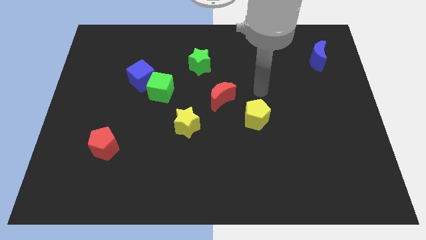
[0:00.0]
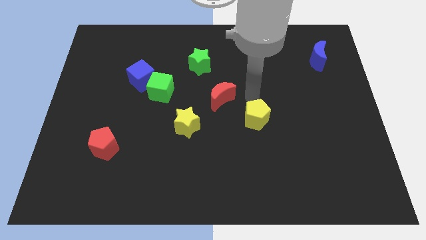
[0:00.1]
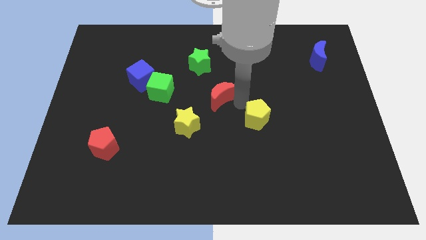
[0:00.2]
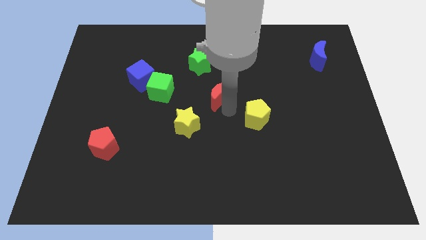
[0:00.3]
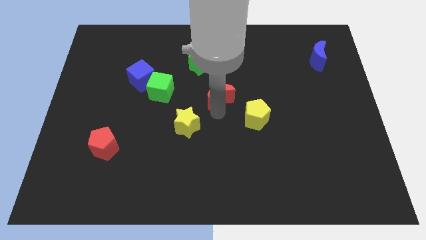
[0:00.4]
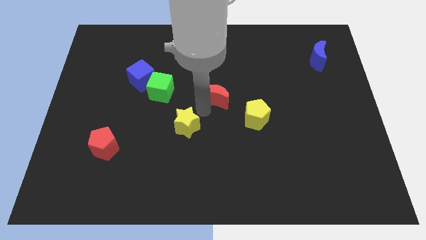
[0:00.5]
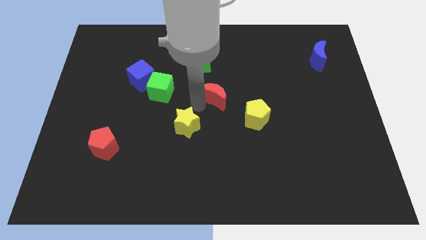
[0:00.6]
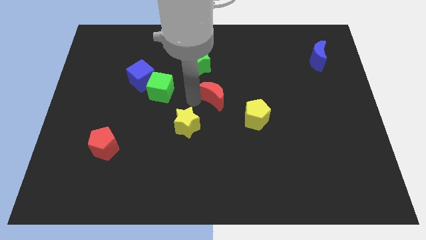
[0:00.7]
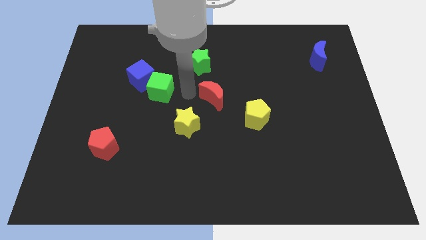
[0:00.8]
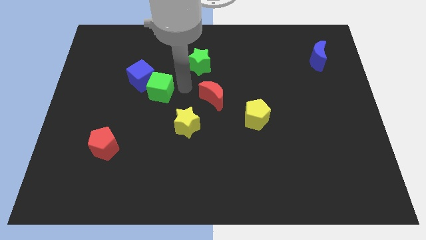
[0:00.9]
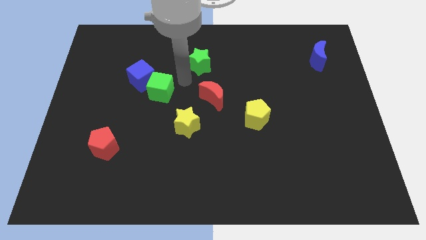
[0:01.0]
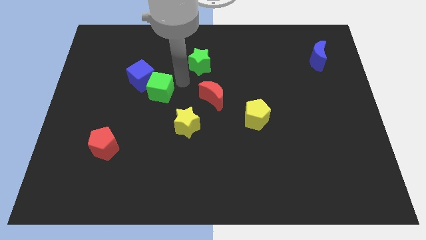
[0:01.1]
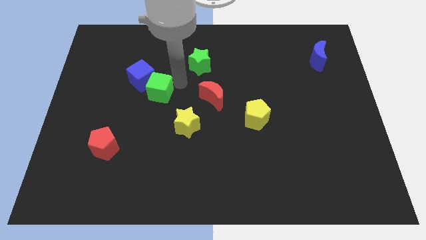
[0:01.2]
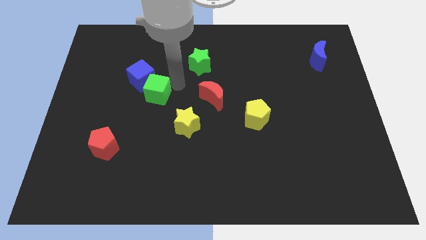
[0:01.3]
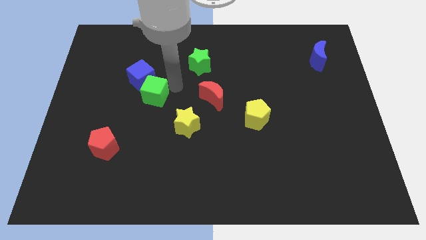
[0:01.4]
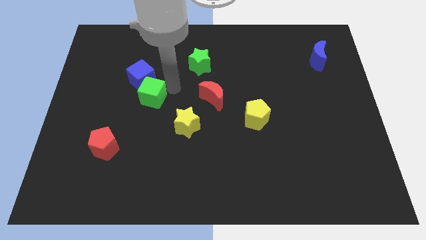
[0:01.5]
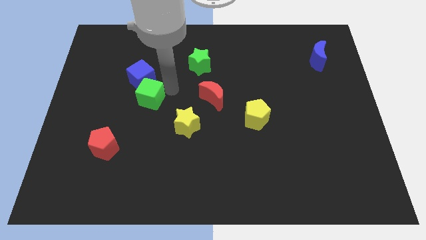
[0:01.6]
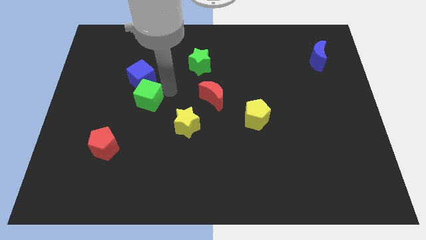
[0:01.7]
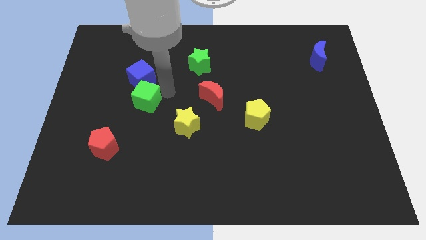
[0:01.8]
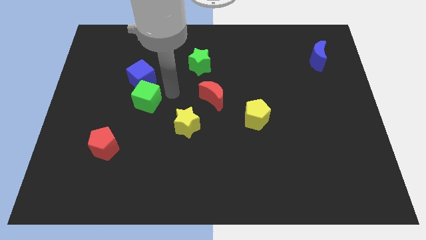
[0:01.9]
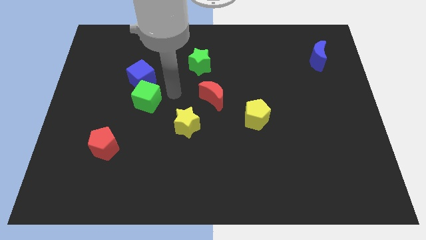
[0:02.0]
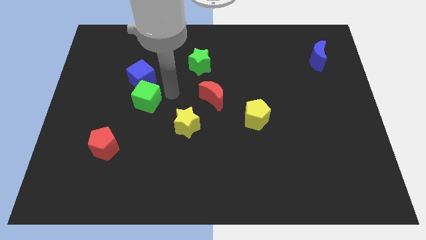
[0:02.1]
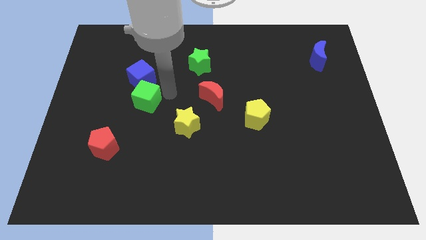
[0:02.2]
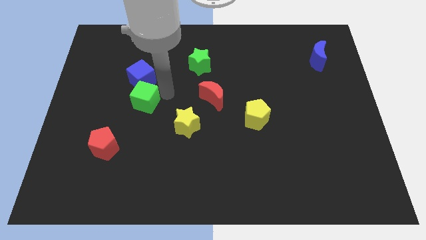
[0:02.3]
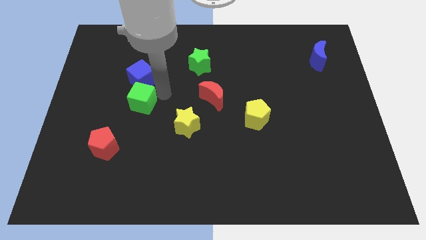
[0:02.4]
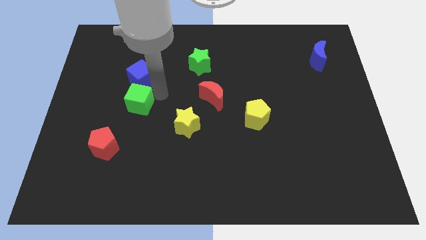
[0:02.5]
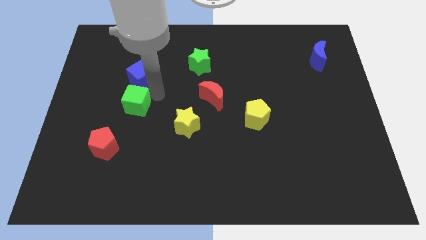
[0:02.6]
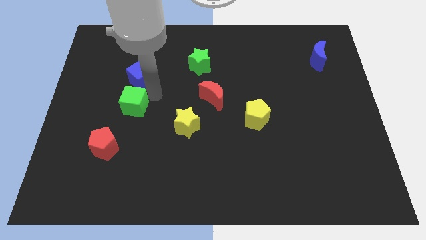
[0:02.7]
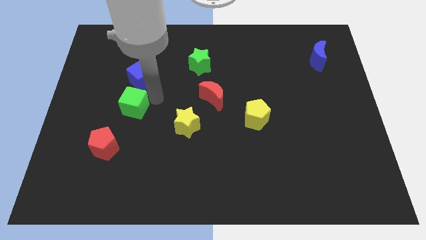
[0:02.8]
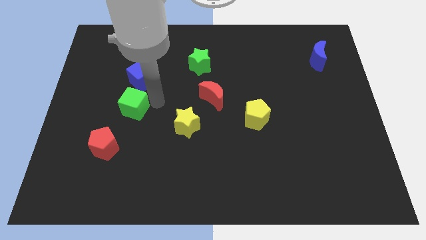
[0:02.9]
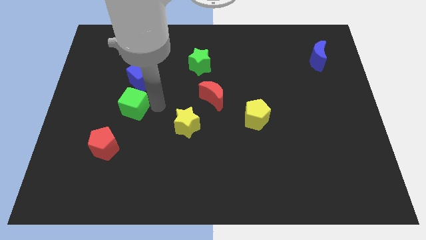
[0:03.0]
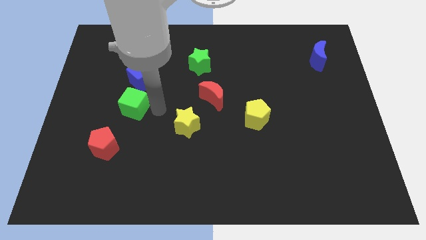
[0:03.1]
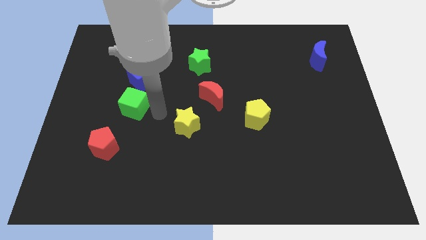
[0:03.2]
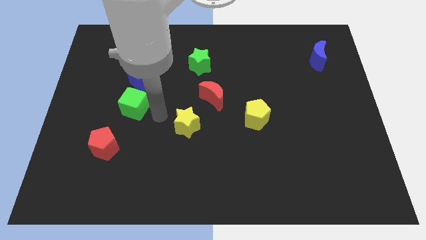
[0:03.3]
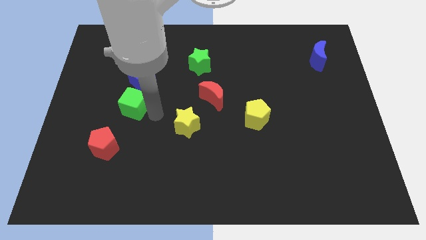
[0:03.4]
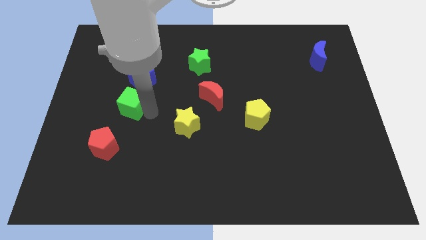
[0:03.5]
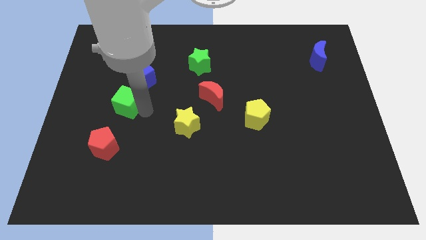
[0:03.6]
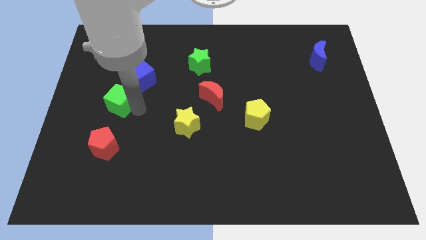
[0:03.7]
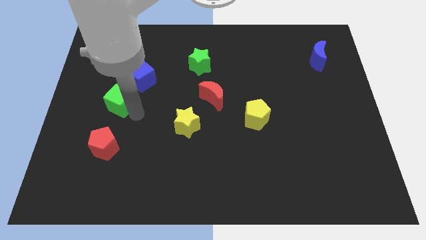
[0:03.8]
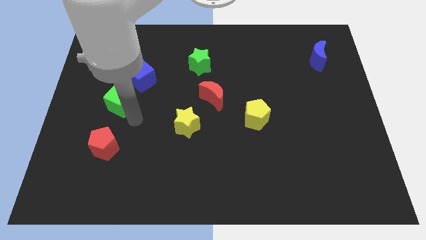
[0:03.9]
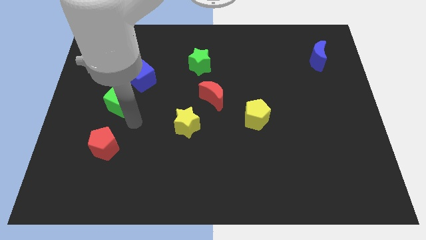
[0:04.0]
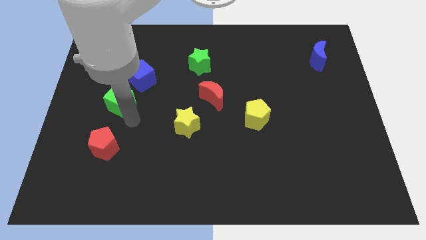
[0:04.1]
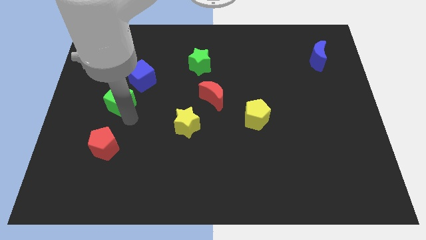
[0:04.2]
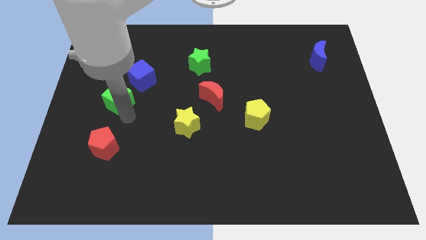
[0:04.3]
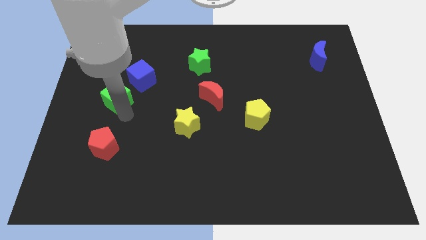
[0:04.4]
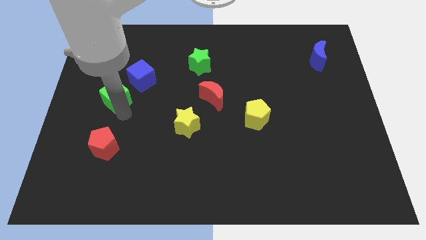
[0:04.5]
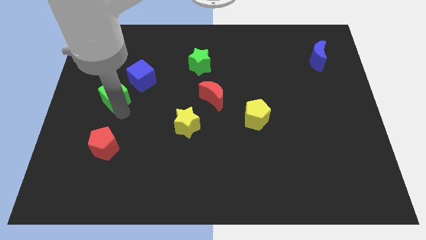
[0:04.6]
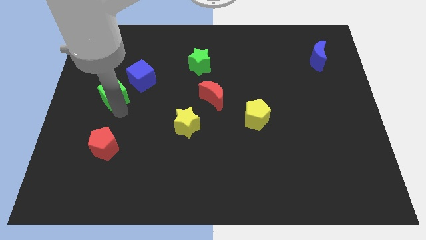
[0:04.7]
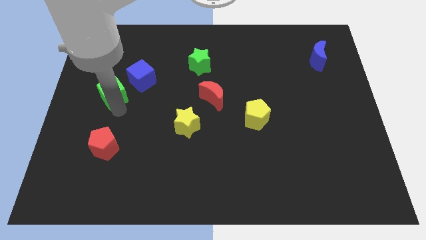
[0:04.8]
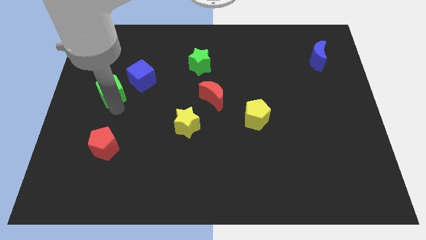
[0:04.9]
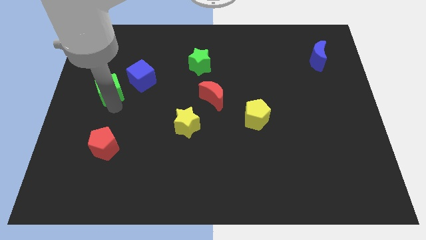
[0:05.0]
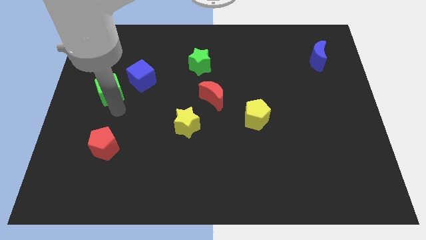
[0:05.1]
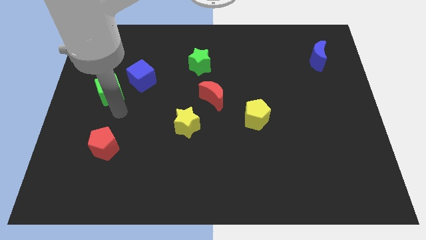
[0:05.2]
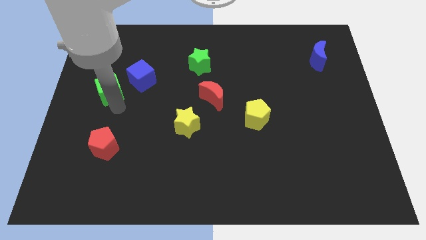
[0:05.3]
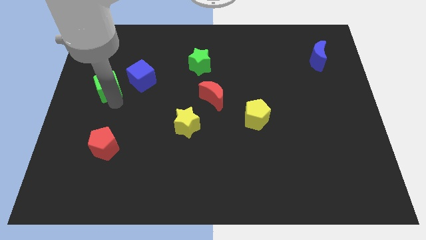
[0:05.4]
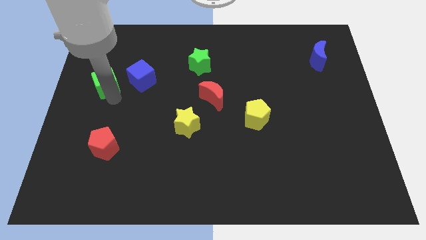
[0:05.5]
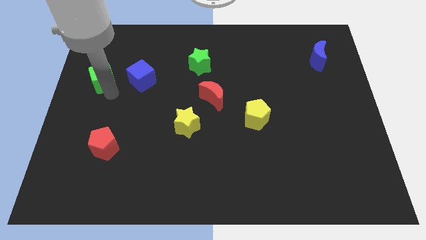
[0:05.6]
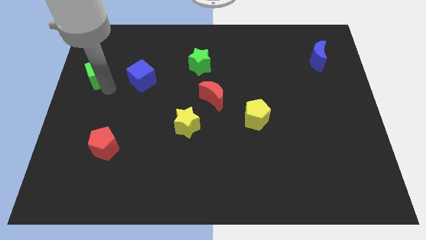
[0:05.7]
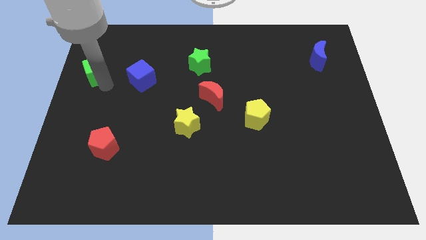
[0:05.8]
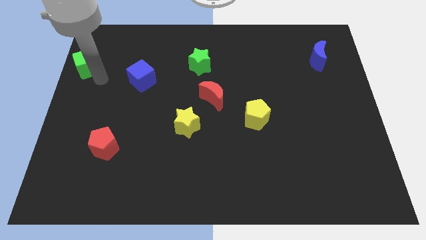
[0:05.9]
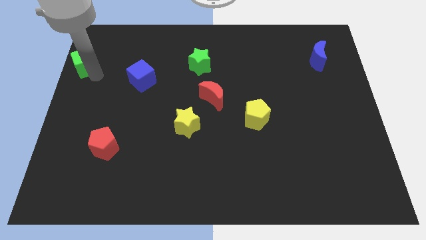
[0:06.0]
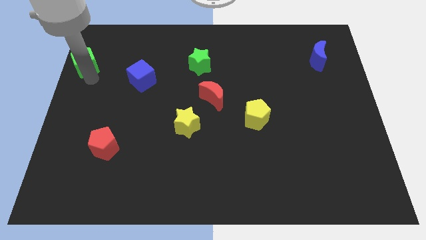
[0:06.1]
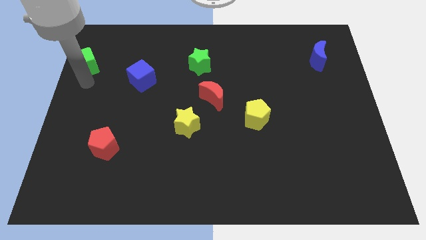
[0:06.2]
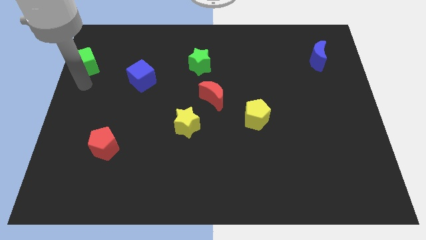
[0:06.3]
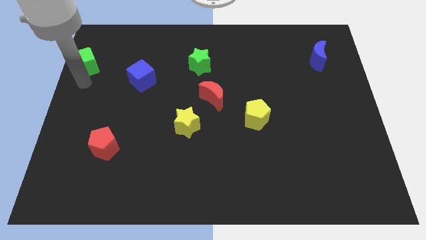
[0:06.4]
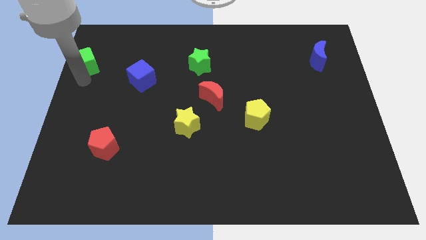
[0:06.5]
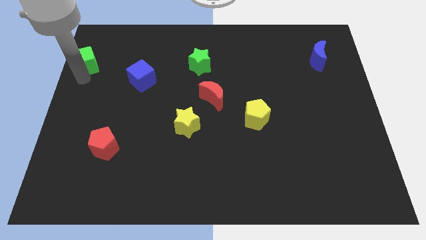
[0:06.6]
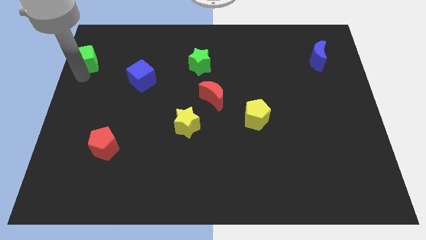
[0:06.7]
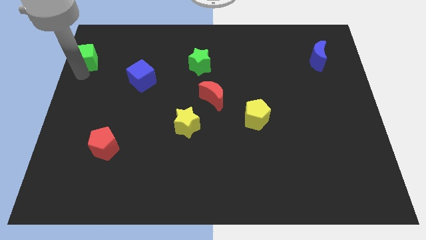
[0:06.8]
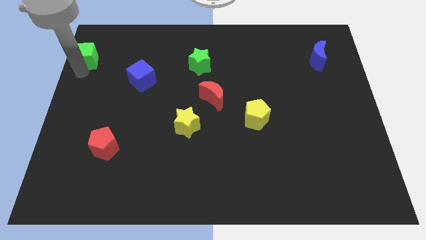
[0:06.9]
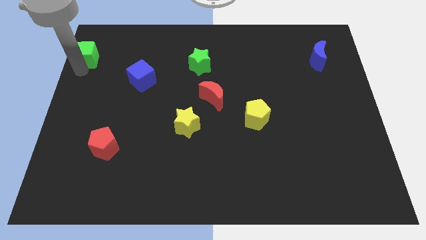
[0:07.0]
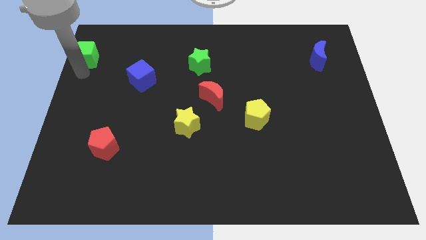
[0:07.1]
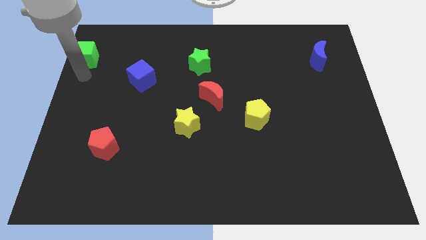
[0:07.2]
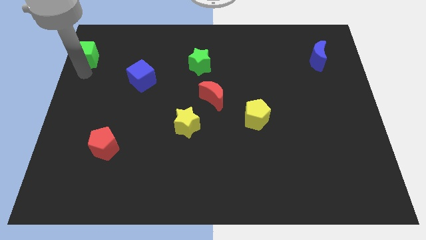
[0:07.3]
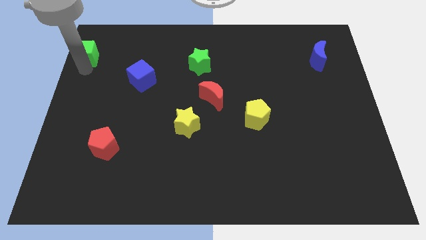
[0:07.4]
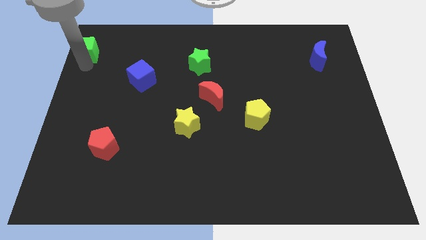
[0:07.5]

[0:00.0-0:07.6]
put the green cube to the top left corner
